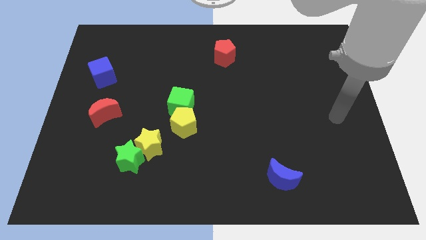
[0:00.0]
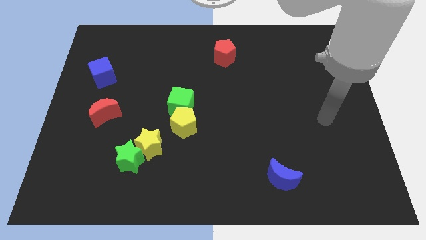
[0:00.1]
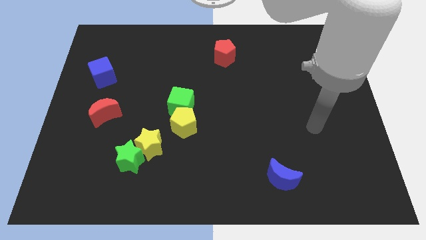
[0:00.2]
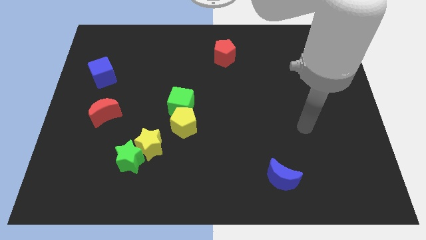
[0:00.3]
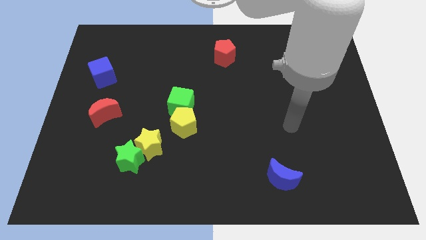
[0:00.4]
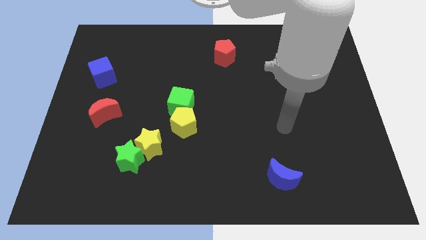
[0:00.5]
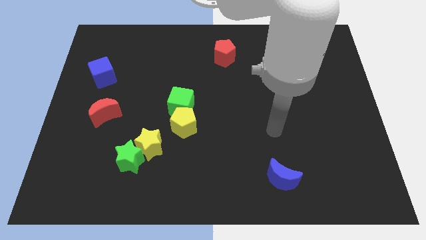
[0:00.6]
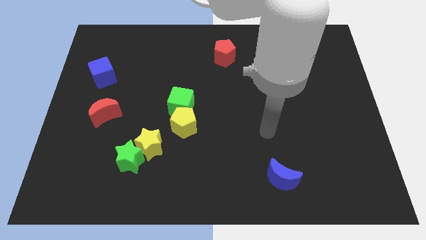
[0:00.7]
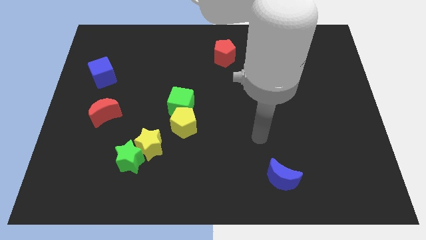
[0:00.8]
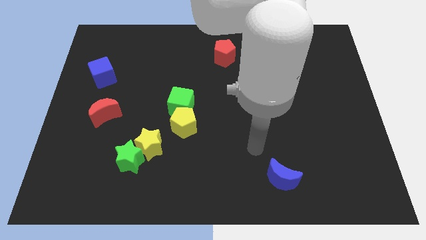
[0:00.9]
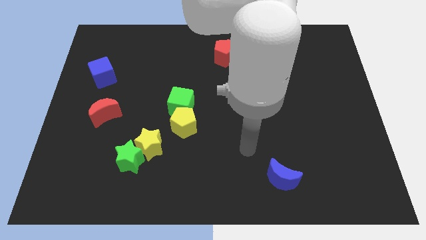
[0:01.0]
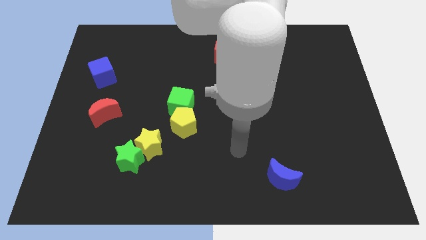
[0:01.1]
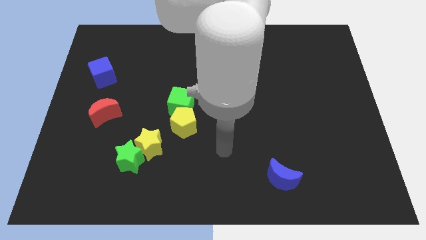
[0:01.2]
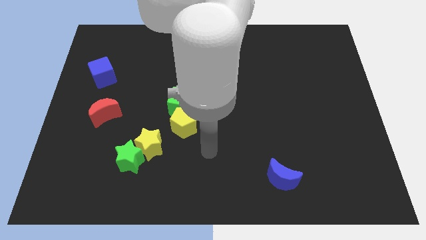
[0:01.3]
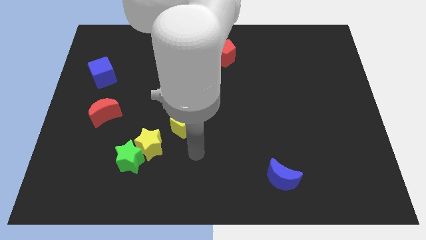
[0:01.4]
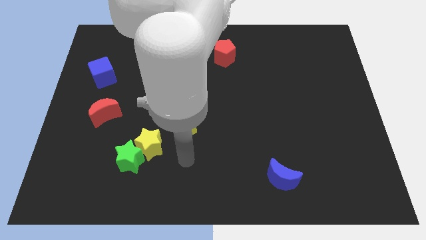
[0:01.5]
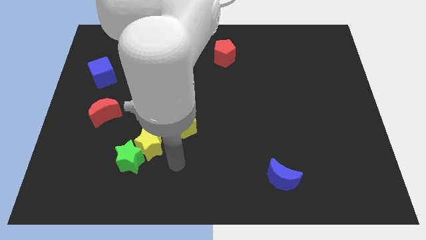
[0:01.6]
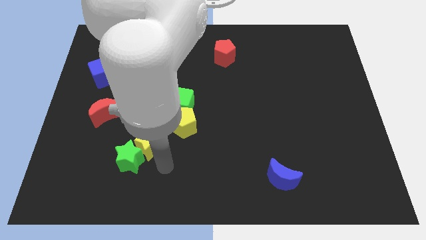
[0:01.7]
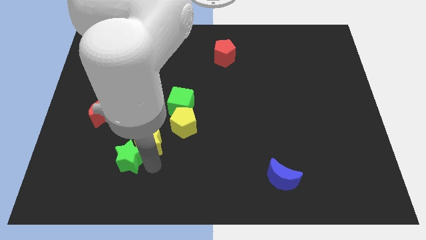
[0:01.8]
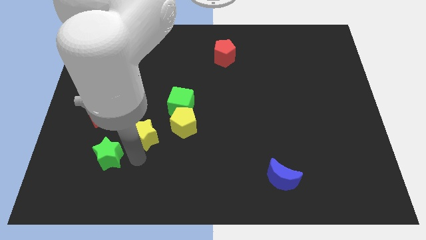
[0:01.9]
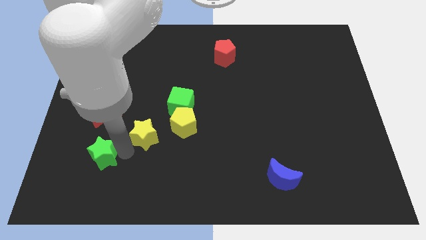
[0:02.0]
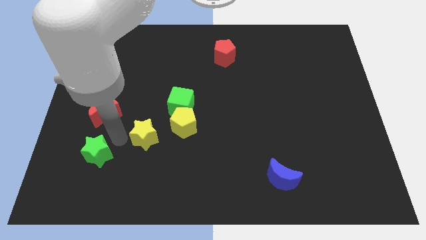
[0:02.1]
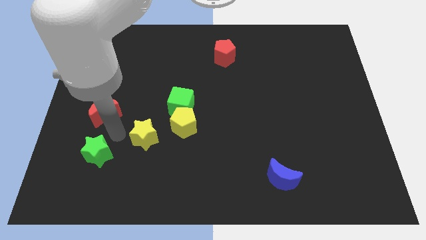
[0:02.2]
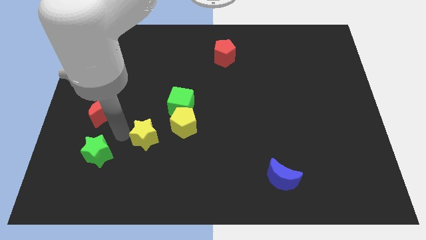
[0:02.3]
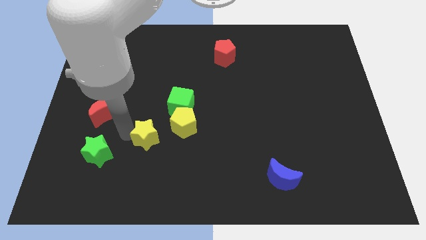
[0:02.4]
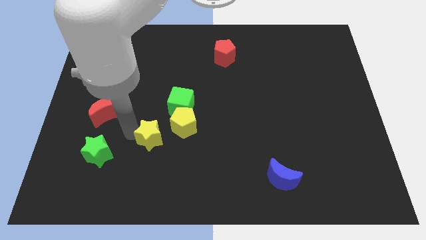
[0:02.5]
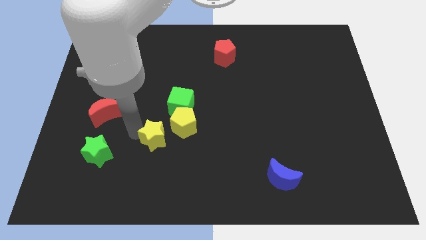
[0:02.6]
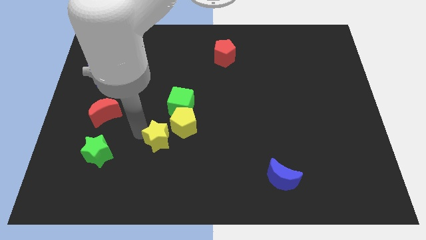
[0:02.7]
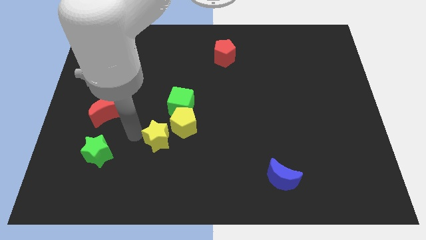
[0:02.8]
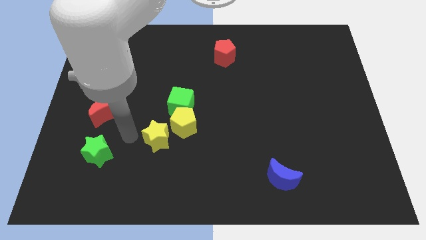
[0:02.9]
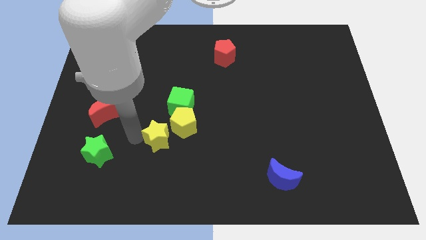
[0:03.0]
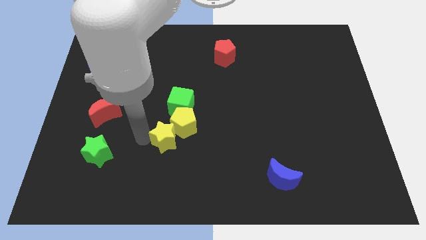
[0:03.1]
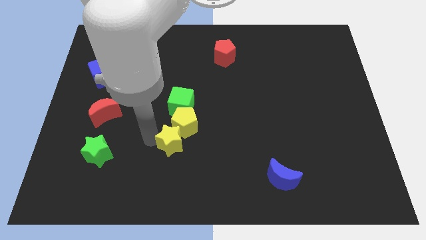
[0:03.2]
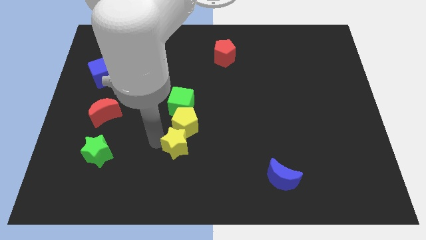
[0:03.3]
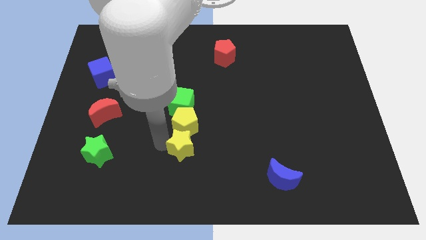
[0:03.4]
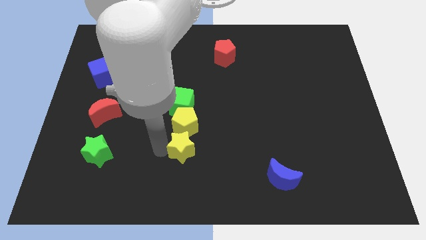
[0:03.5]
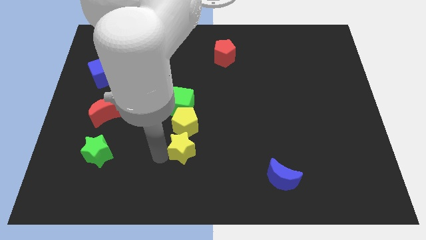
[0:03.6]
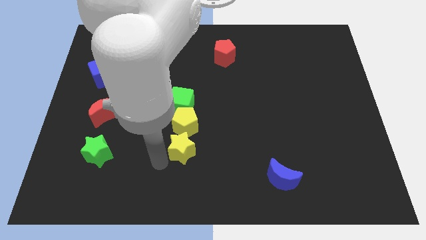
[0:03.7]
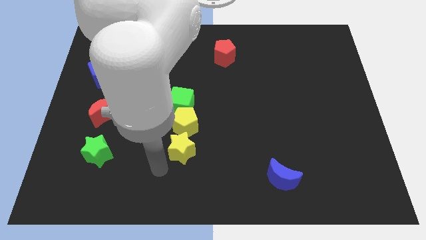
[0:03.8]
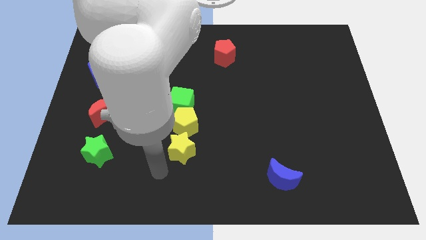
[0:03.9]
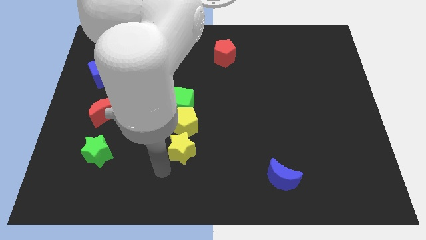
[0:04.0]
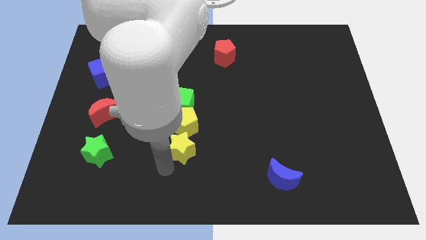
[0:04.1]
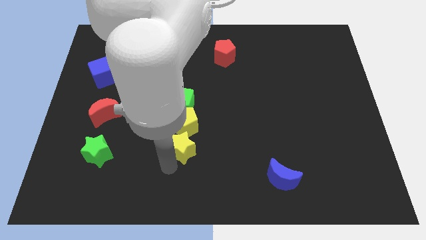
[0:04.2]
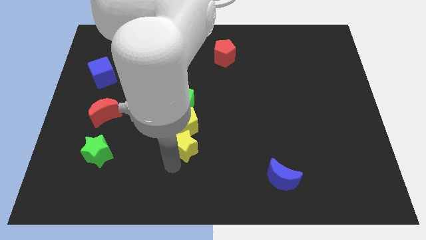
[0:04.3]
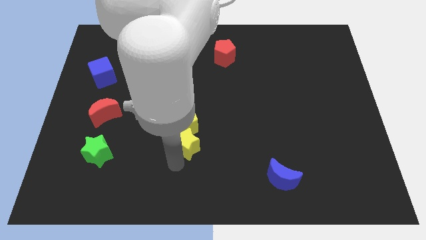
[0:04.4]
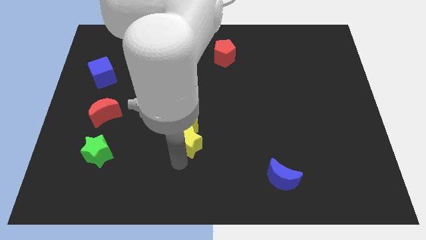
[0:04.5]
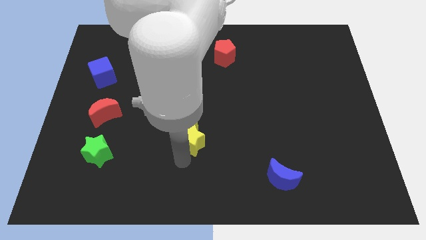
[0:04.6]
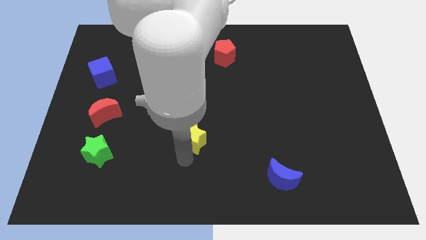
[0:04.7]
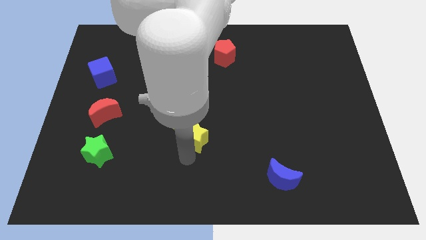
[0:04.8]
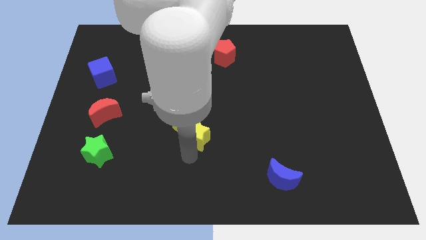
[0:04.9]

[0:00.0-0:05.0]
slightly move the yellow star up and to the right diagonally

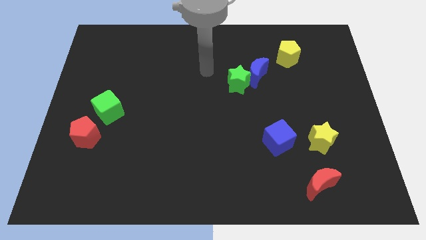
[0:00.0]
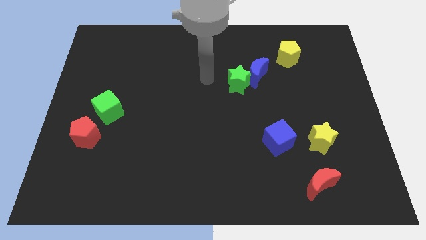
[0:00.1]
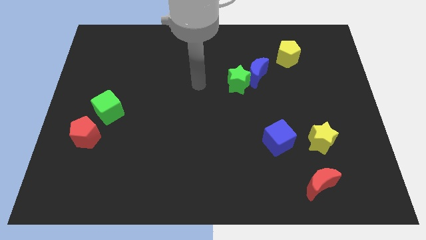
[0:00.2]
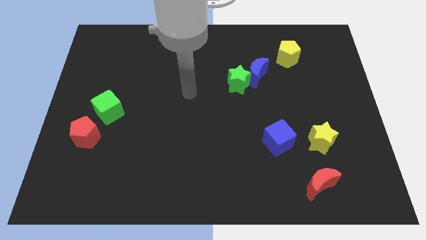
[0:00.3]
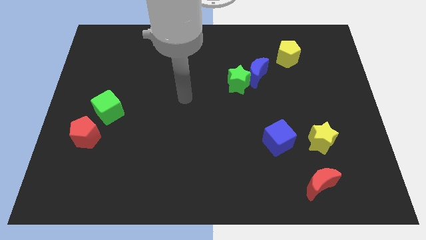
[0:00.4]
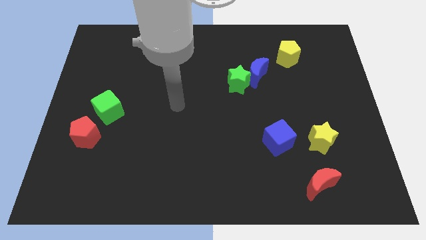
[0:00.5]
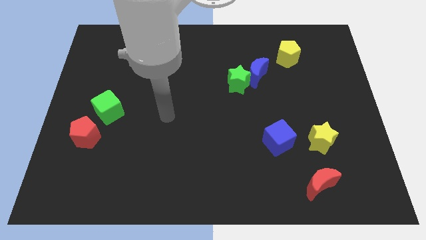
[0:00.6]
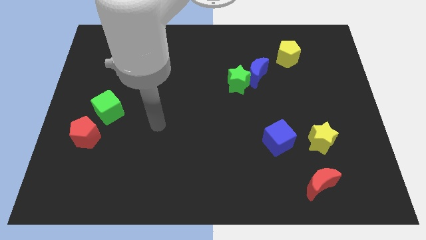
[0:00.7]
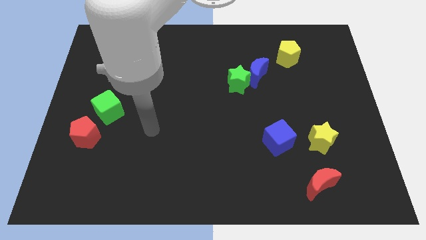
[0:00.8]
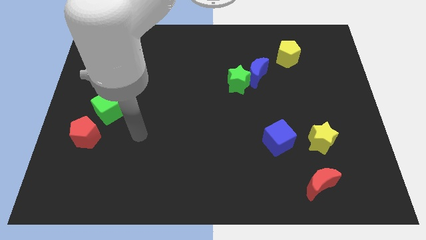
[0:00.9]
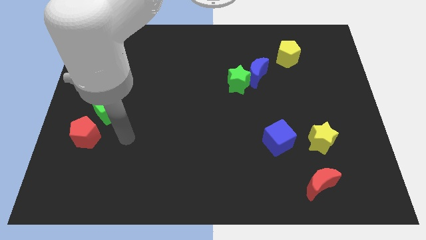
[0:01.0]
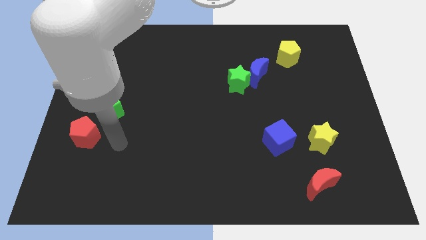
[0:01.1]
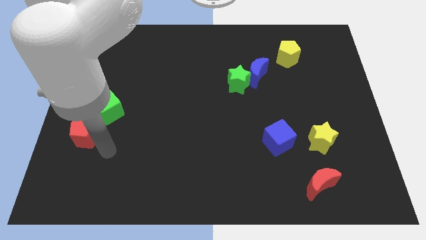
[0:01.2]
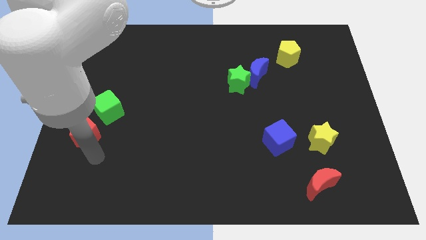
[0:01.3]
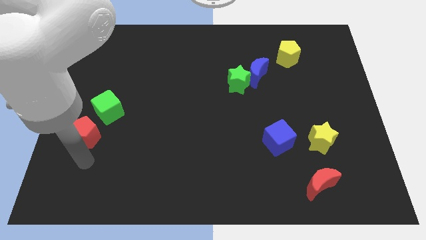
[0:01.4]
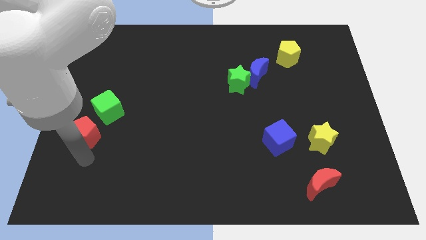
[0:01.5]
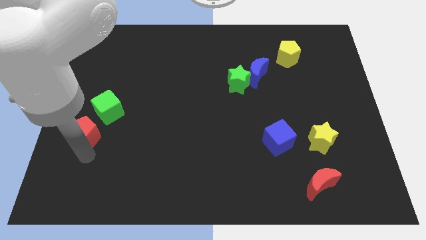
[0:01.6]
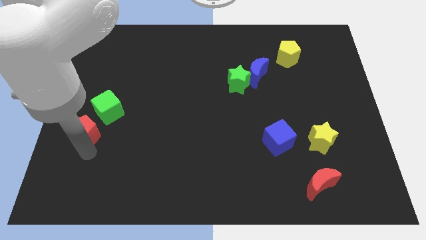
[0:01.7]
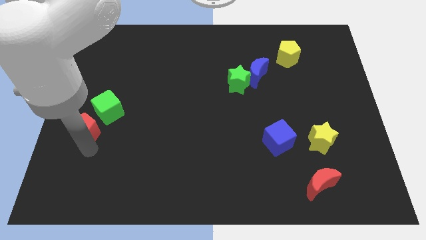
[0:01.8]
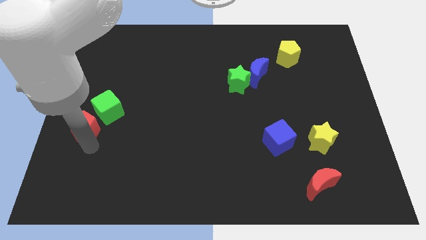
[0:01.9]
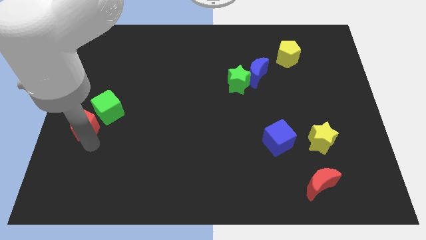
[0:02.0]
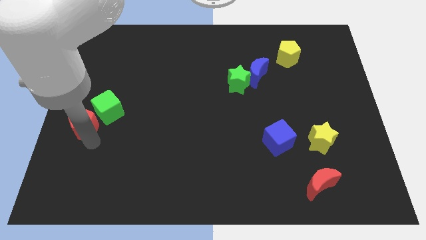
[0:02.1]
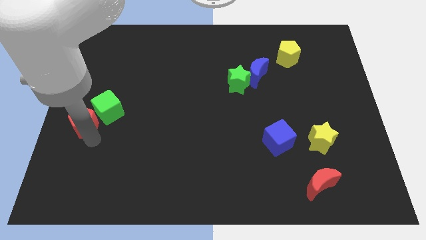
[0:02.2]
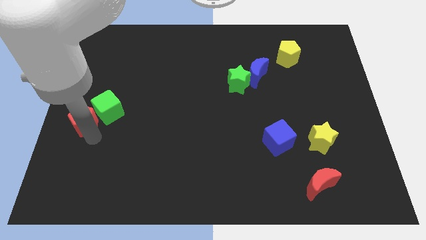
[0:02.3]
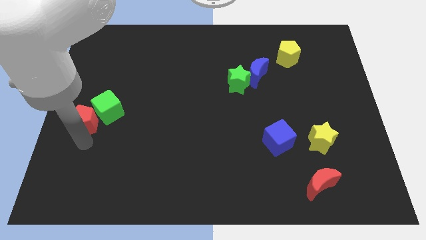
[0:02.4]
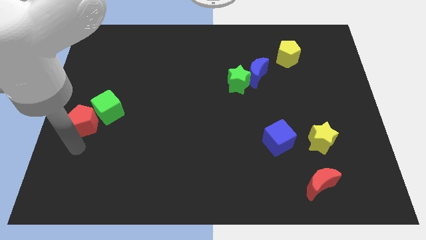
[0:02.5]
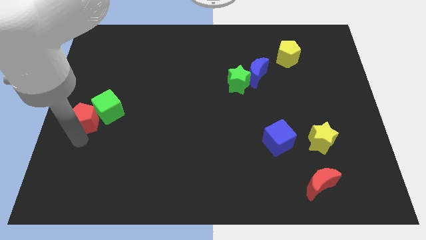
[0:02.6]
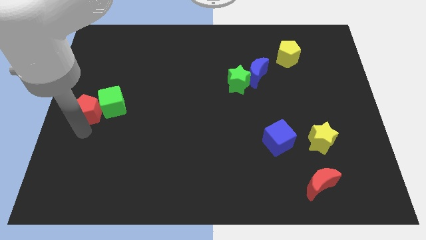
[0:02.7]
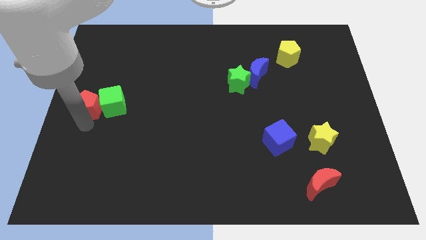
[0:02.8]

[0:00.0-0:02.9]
slightly slide the red pentagon upwards
